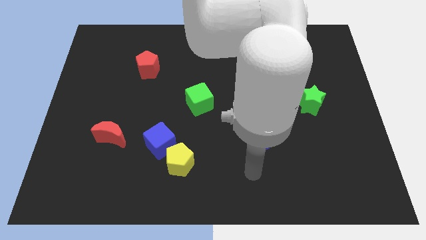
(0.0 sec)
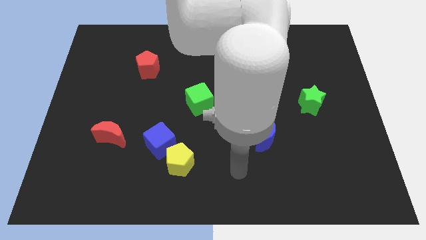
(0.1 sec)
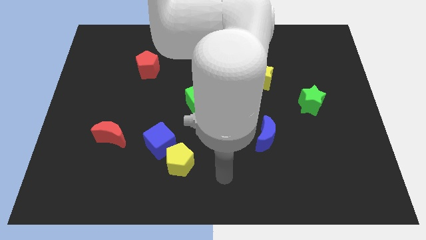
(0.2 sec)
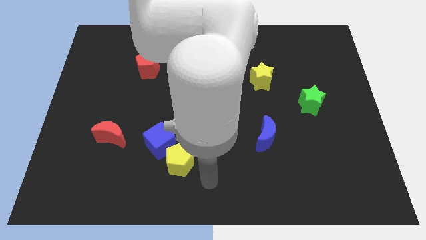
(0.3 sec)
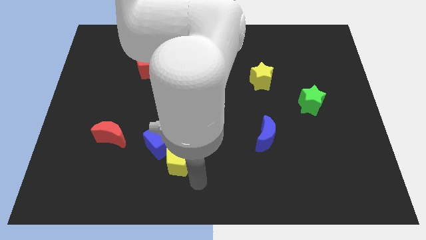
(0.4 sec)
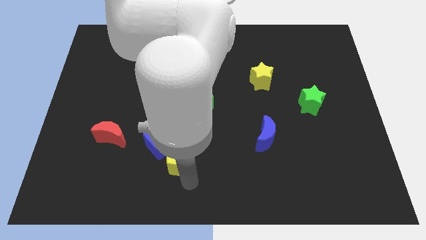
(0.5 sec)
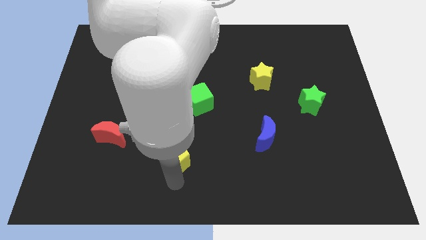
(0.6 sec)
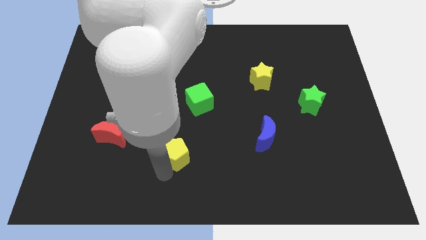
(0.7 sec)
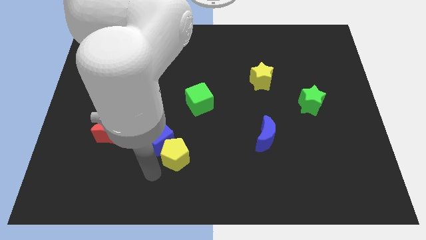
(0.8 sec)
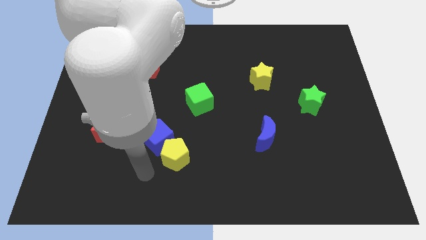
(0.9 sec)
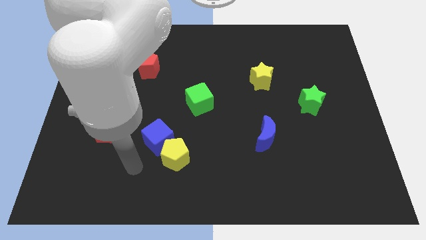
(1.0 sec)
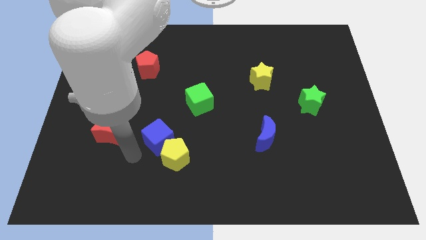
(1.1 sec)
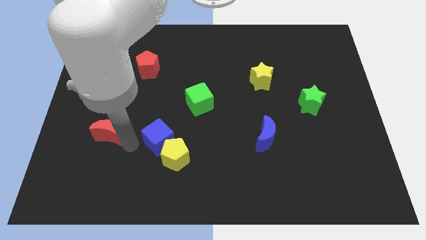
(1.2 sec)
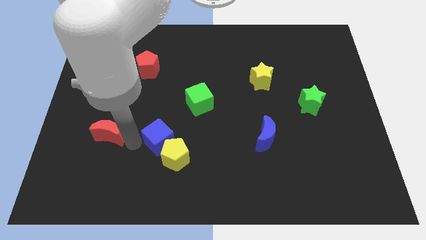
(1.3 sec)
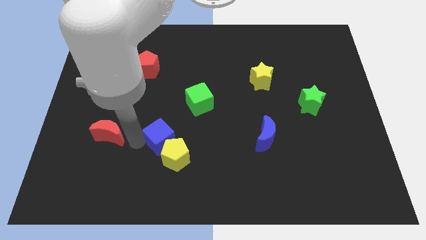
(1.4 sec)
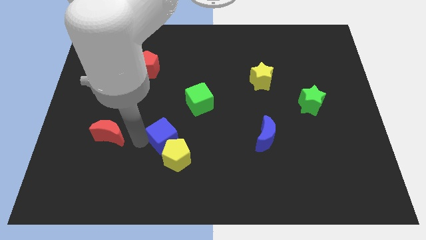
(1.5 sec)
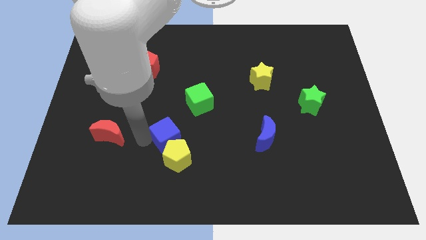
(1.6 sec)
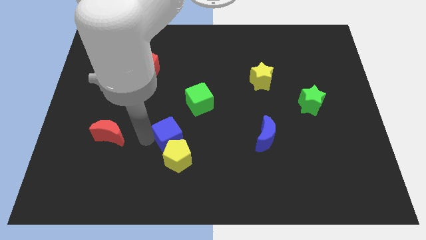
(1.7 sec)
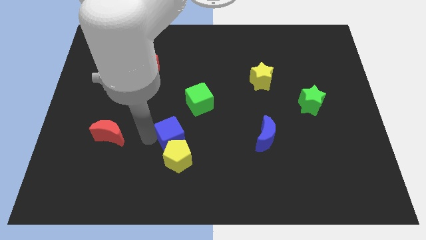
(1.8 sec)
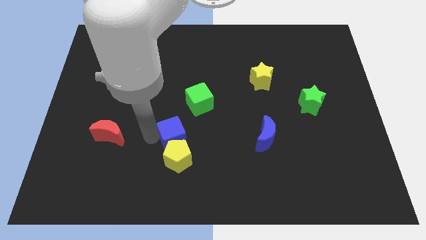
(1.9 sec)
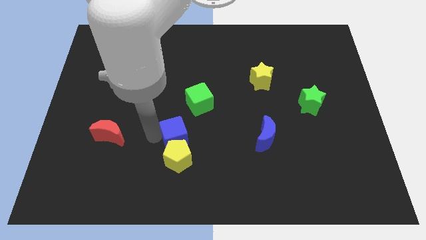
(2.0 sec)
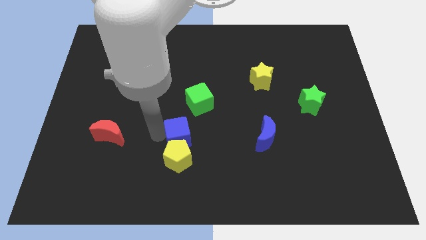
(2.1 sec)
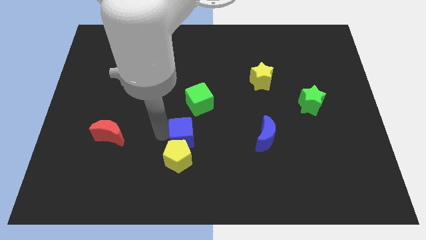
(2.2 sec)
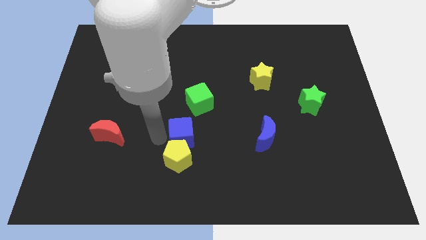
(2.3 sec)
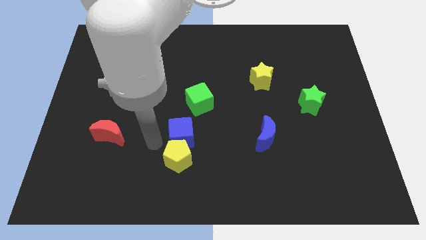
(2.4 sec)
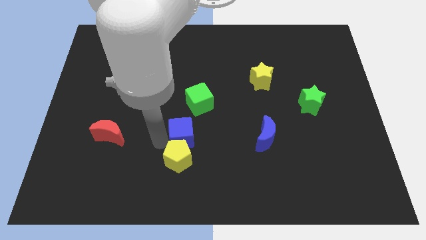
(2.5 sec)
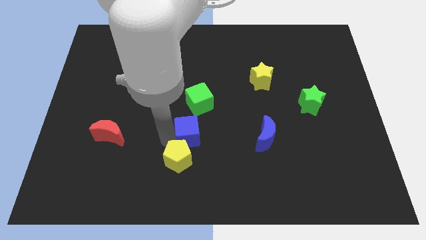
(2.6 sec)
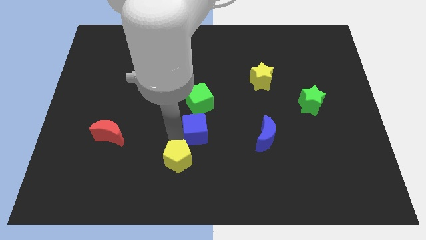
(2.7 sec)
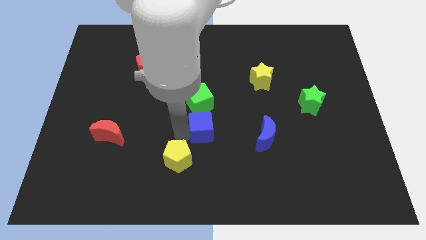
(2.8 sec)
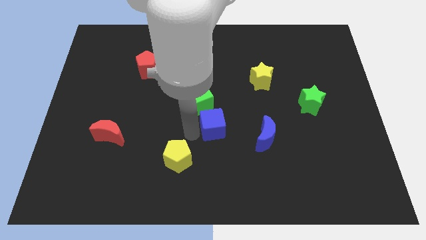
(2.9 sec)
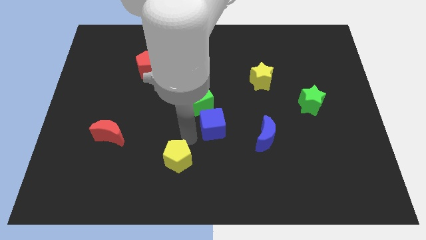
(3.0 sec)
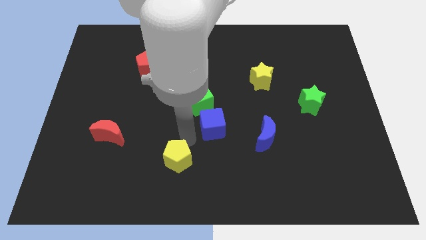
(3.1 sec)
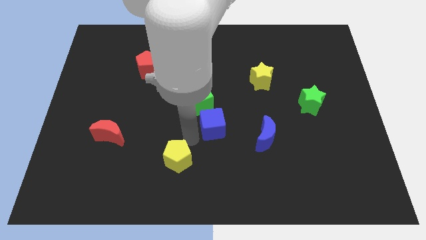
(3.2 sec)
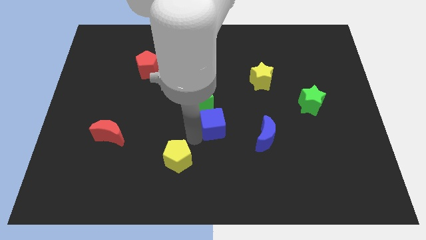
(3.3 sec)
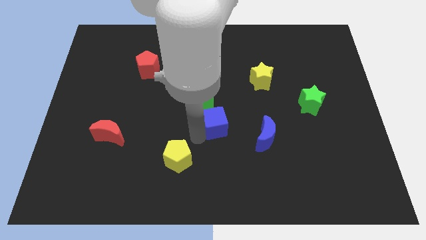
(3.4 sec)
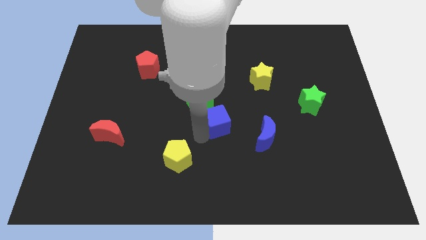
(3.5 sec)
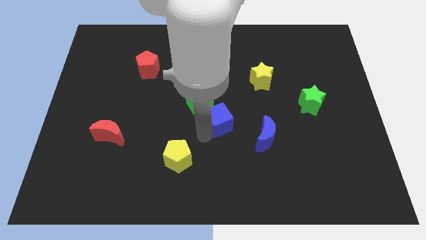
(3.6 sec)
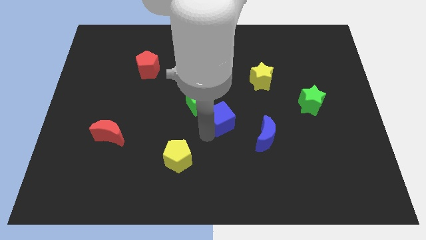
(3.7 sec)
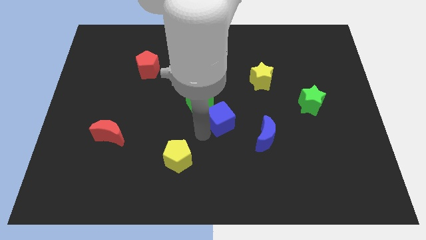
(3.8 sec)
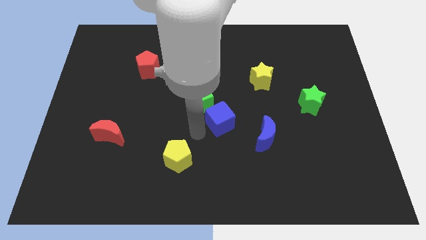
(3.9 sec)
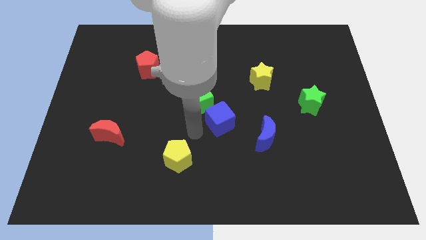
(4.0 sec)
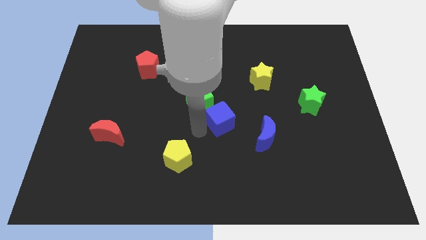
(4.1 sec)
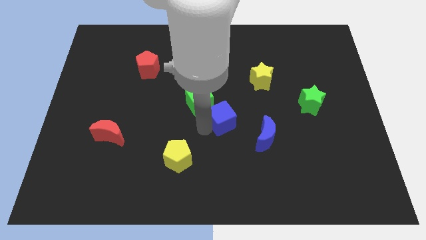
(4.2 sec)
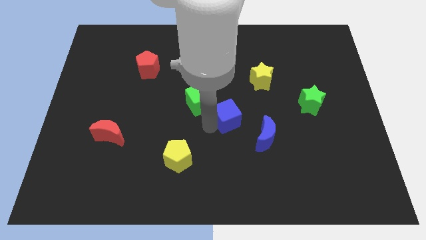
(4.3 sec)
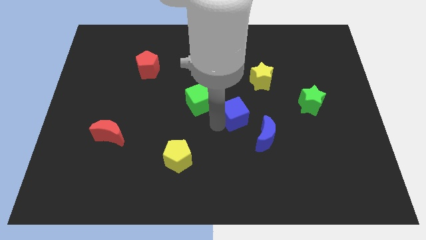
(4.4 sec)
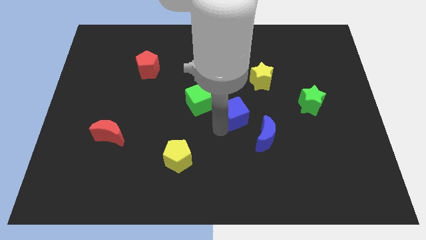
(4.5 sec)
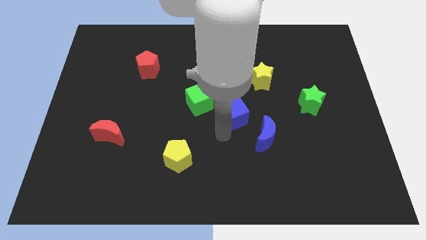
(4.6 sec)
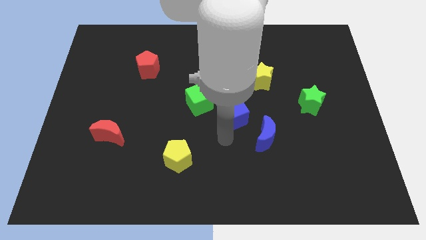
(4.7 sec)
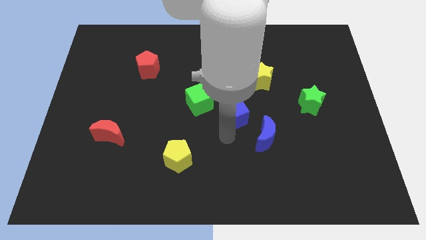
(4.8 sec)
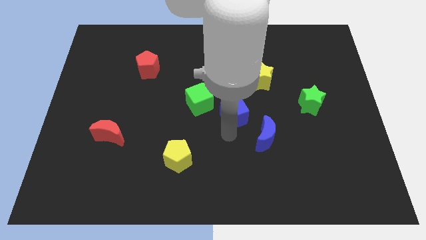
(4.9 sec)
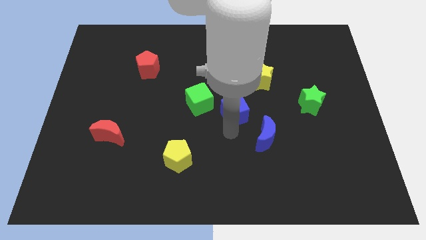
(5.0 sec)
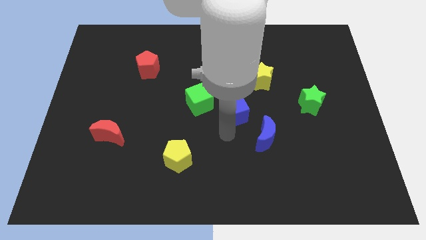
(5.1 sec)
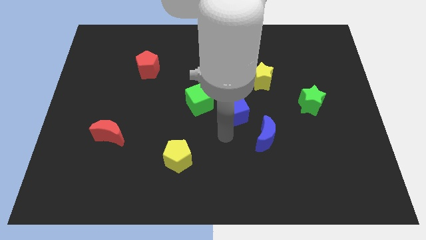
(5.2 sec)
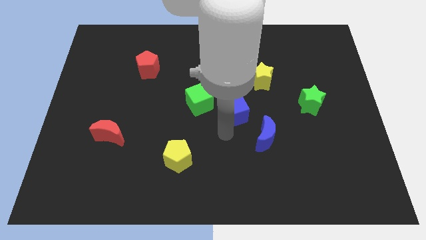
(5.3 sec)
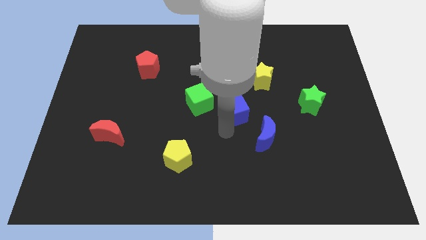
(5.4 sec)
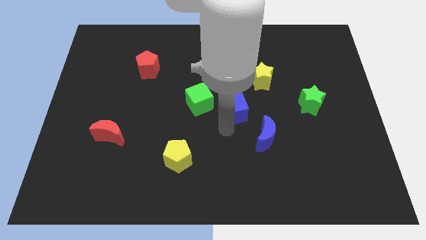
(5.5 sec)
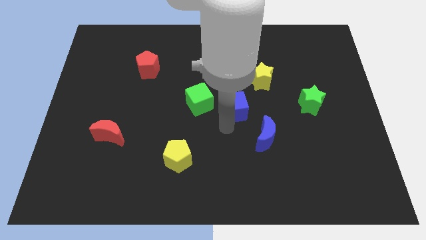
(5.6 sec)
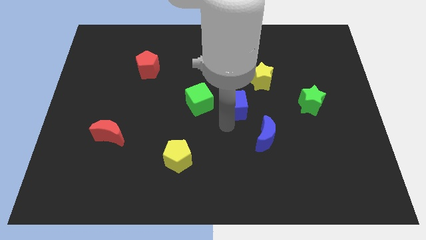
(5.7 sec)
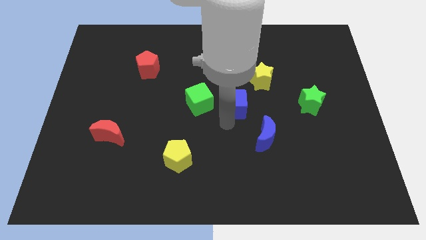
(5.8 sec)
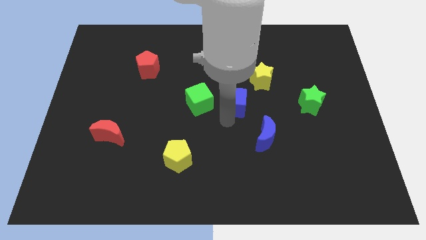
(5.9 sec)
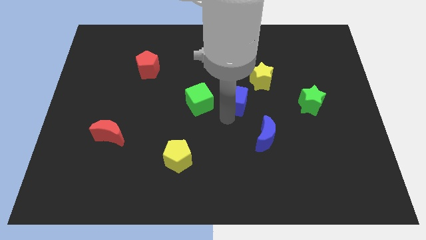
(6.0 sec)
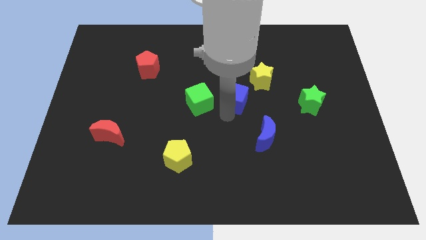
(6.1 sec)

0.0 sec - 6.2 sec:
move the blue cube diagonally upwards and to the right

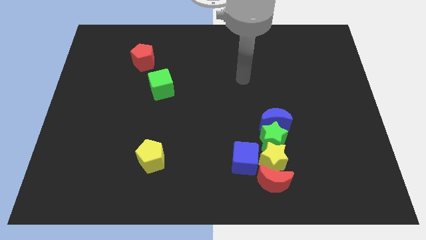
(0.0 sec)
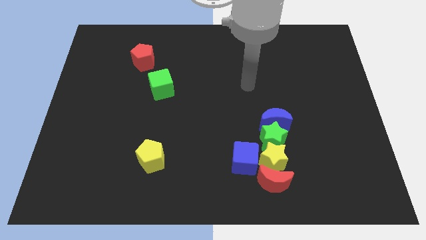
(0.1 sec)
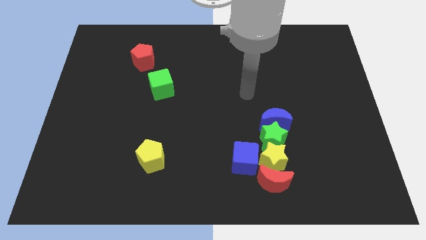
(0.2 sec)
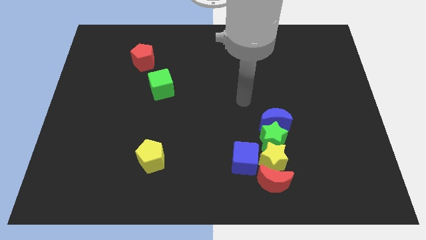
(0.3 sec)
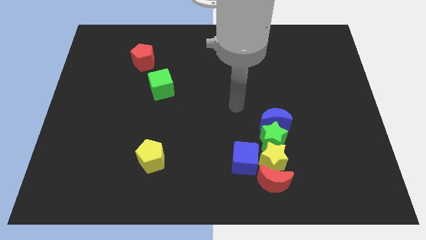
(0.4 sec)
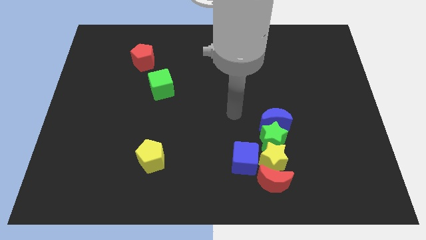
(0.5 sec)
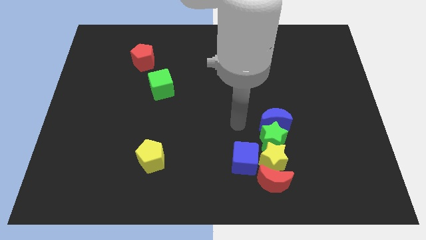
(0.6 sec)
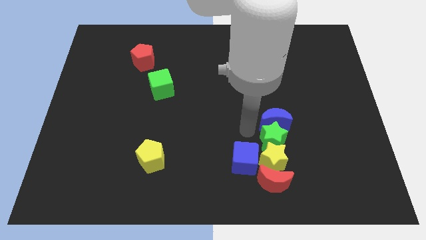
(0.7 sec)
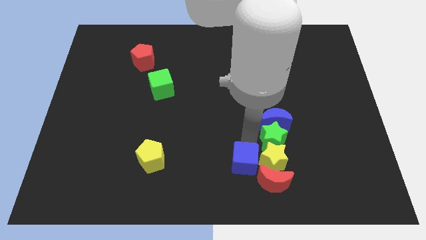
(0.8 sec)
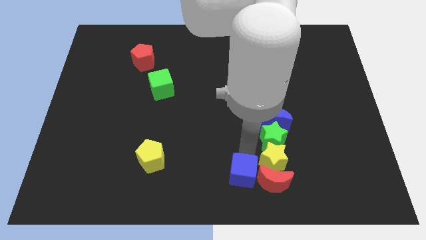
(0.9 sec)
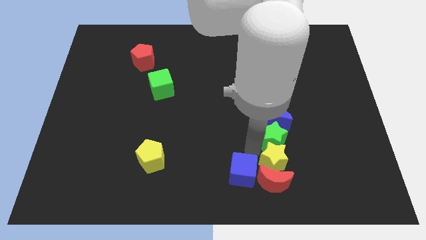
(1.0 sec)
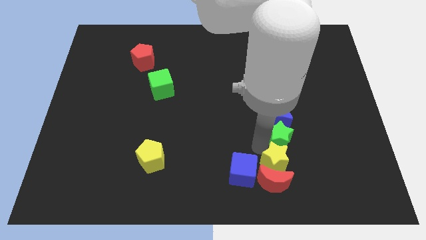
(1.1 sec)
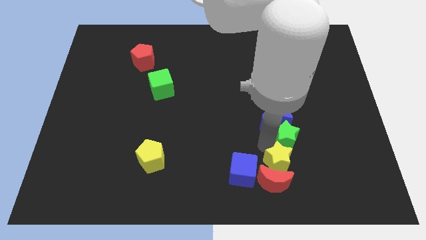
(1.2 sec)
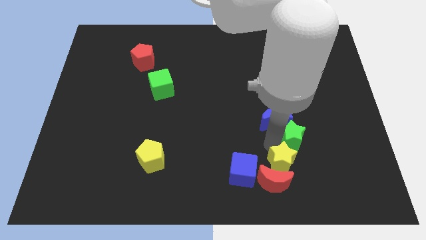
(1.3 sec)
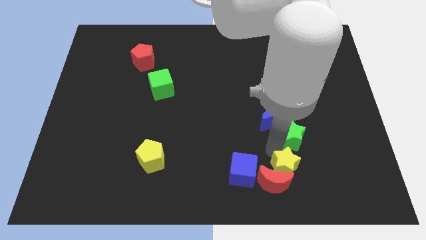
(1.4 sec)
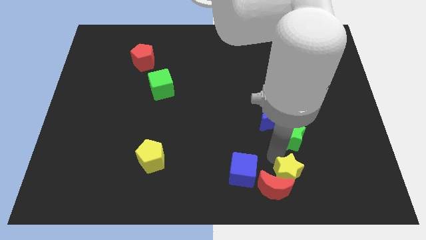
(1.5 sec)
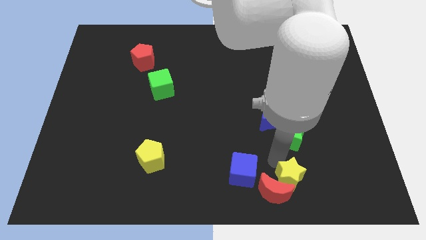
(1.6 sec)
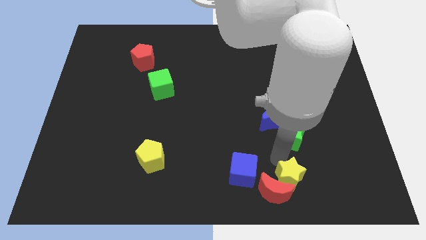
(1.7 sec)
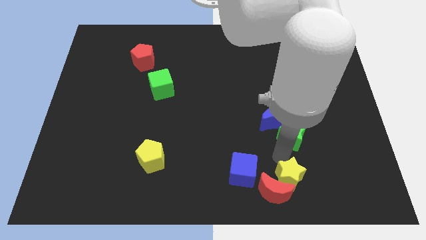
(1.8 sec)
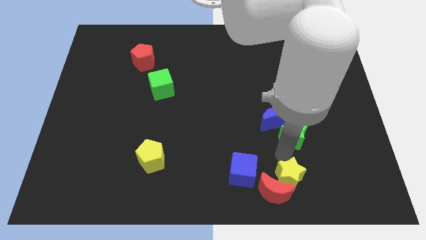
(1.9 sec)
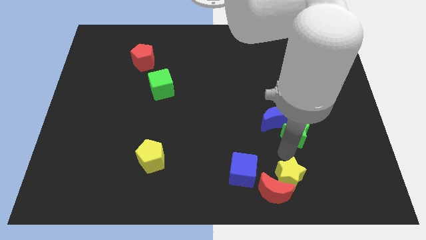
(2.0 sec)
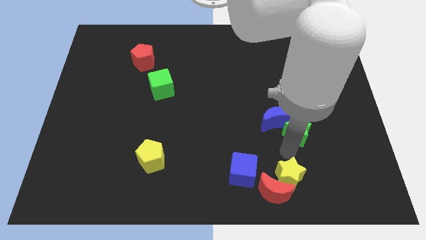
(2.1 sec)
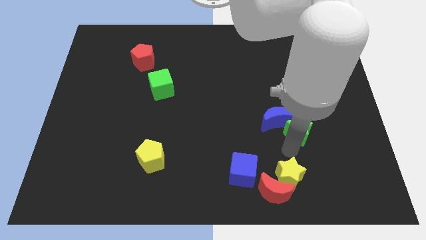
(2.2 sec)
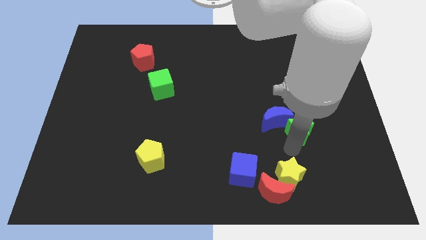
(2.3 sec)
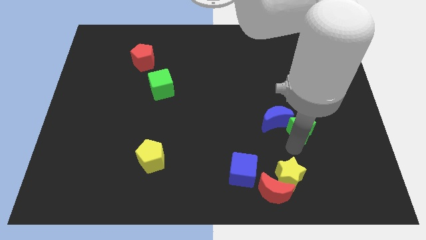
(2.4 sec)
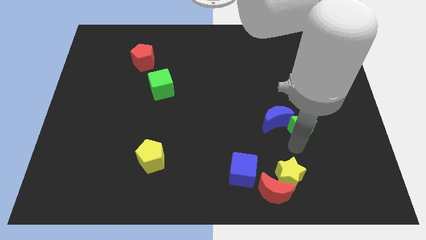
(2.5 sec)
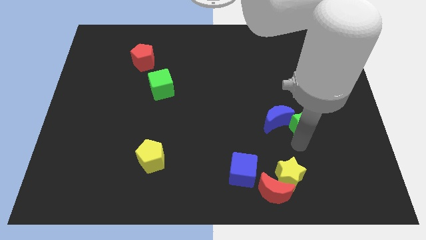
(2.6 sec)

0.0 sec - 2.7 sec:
move the green star up and right diagonally a little bit
